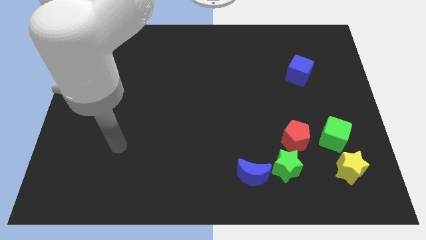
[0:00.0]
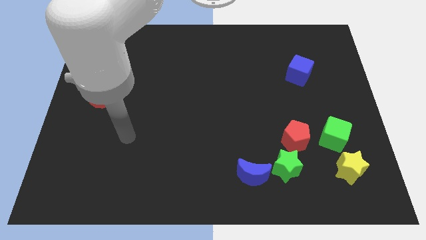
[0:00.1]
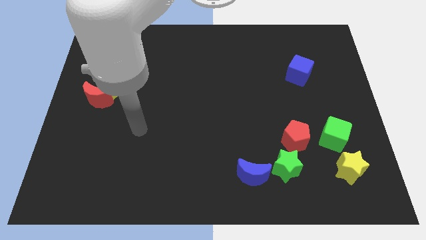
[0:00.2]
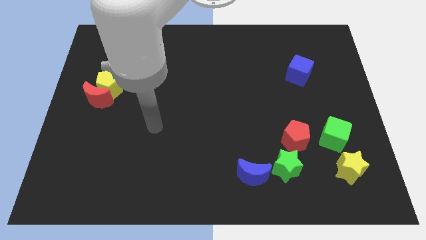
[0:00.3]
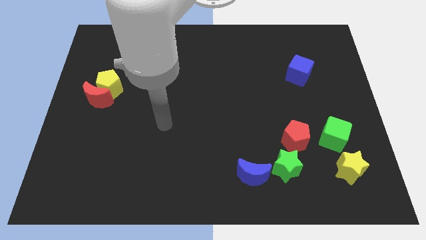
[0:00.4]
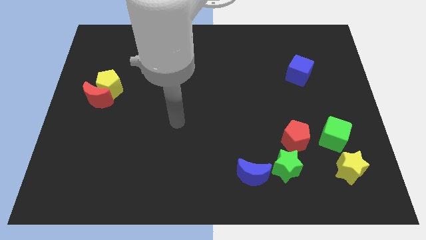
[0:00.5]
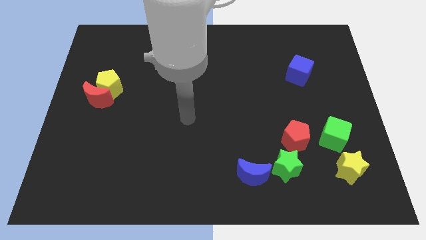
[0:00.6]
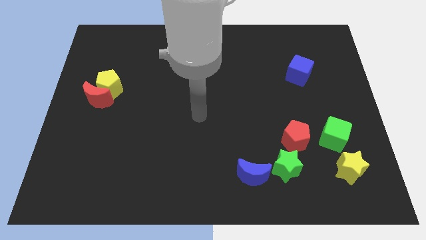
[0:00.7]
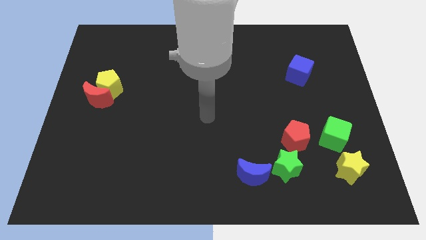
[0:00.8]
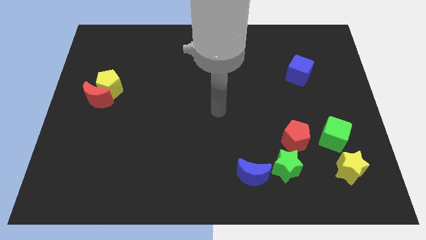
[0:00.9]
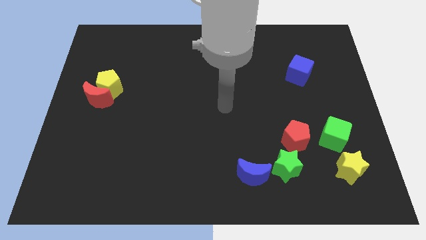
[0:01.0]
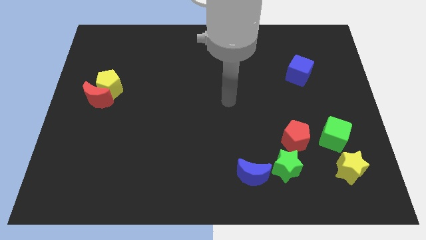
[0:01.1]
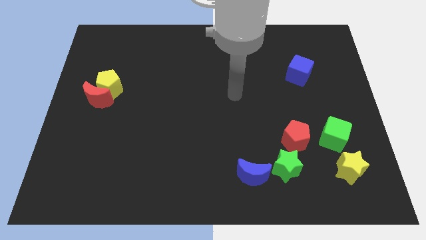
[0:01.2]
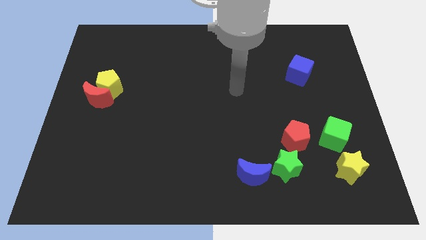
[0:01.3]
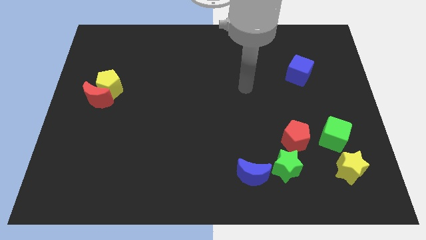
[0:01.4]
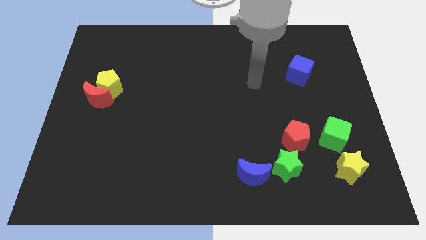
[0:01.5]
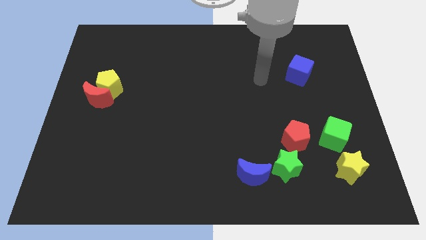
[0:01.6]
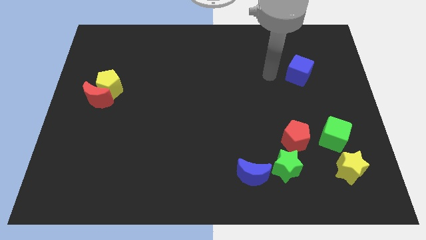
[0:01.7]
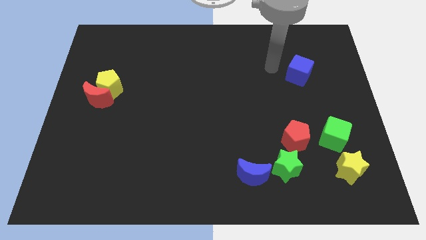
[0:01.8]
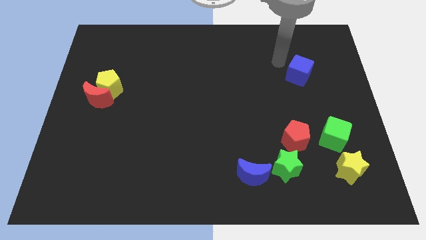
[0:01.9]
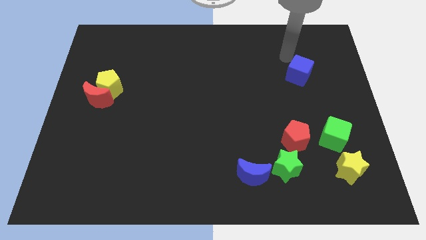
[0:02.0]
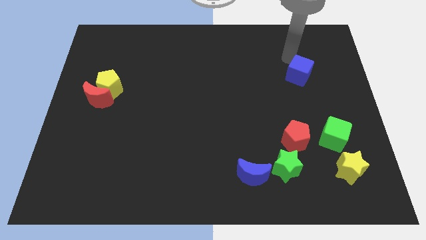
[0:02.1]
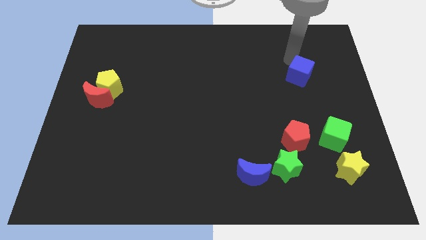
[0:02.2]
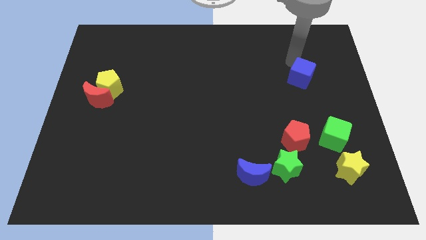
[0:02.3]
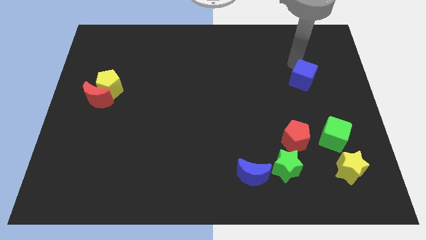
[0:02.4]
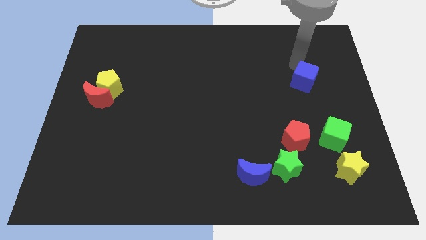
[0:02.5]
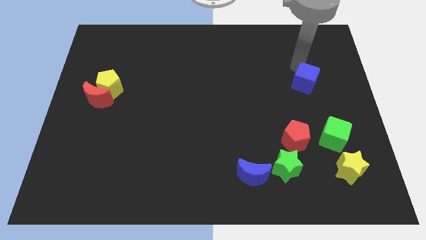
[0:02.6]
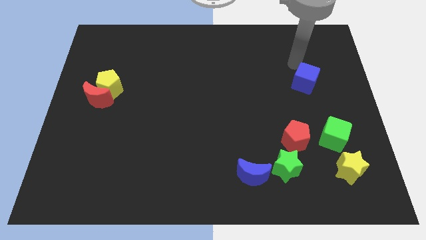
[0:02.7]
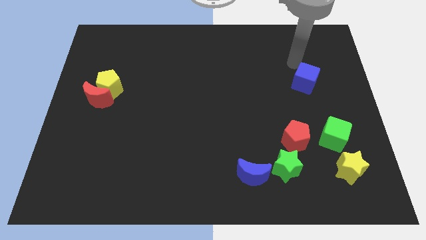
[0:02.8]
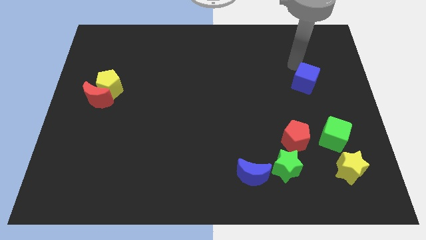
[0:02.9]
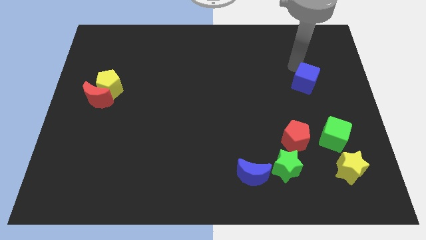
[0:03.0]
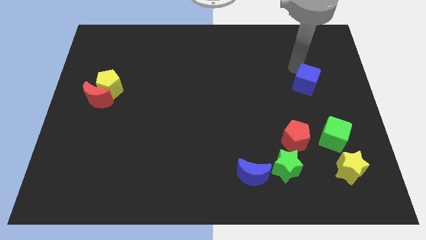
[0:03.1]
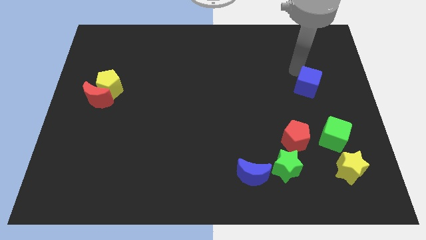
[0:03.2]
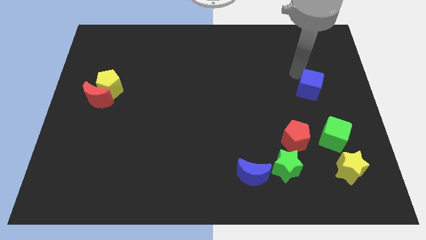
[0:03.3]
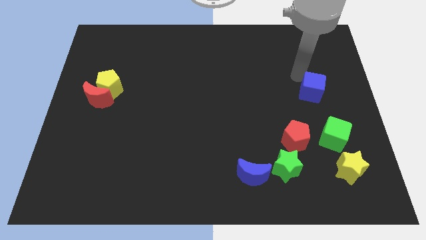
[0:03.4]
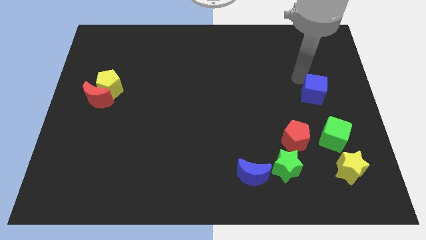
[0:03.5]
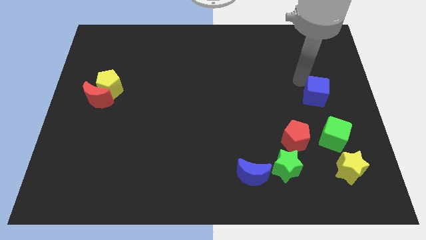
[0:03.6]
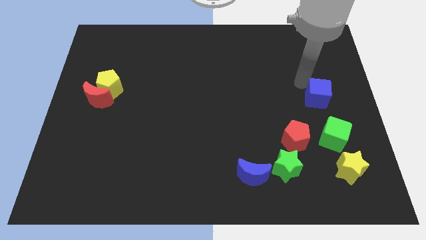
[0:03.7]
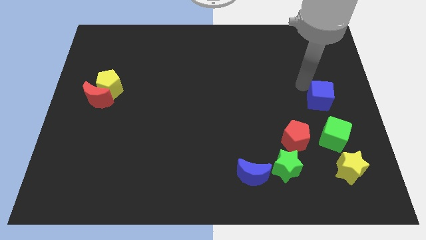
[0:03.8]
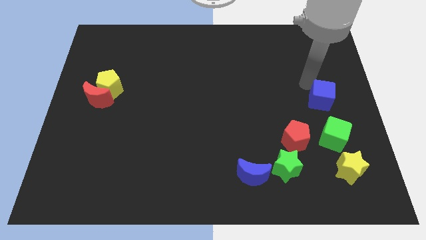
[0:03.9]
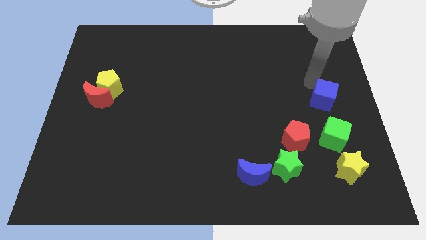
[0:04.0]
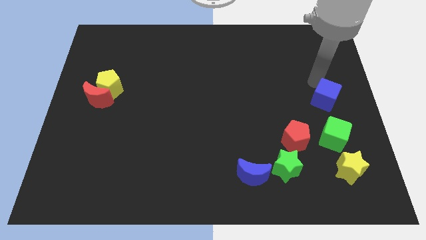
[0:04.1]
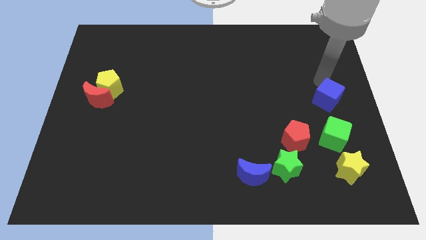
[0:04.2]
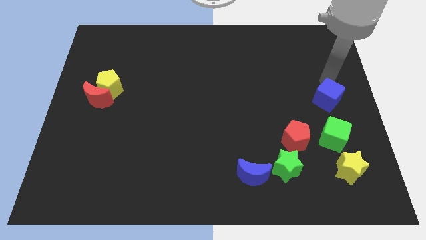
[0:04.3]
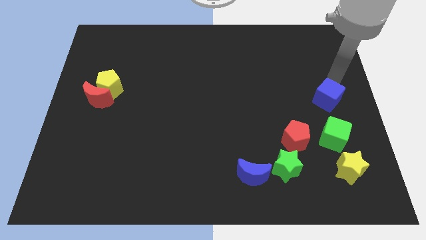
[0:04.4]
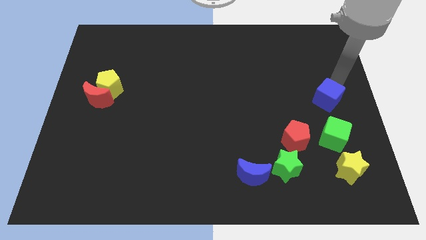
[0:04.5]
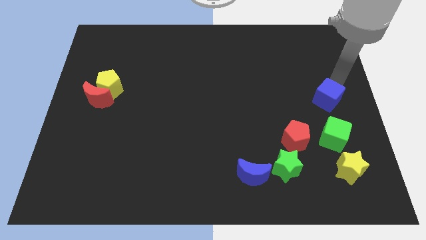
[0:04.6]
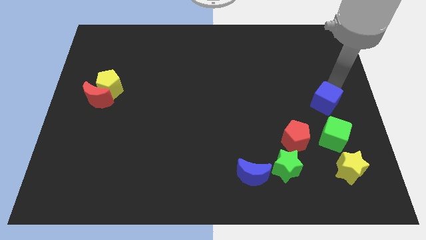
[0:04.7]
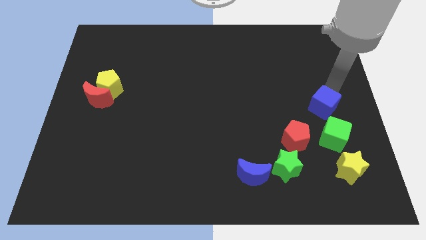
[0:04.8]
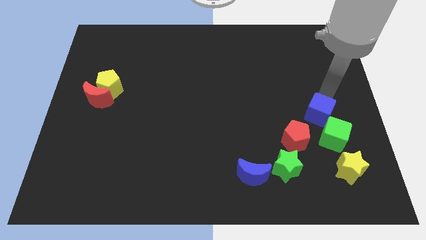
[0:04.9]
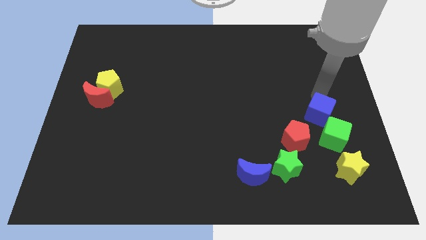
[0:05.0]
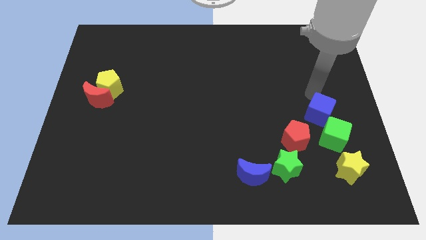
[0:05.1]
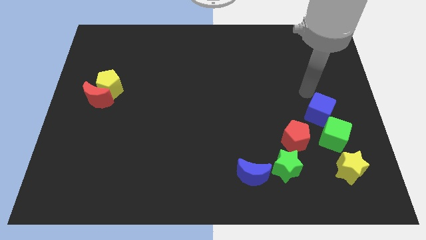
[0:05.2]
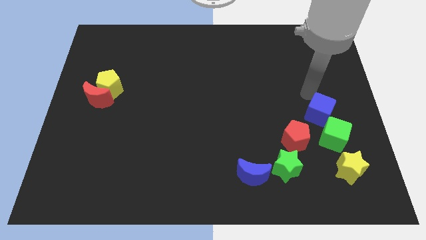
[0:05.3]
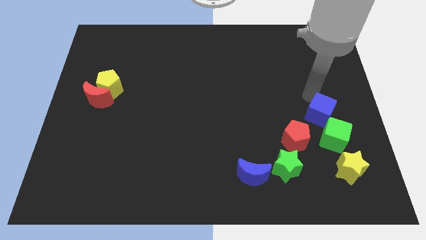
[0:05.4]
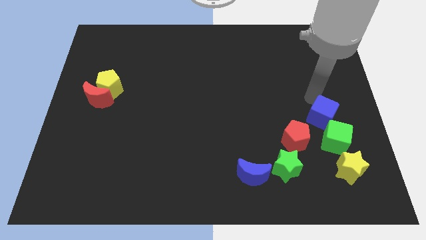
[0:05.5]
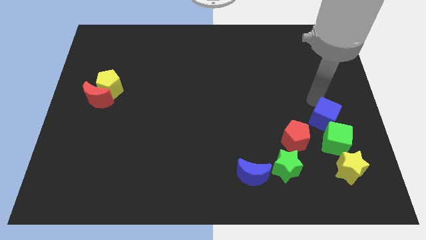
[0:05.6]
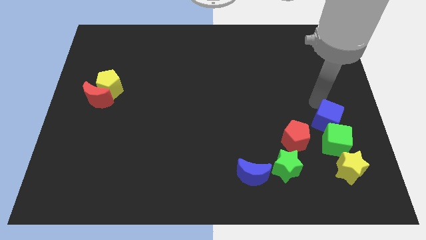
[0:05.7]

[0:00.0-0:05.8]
put the blue cube towards the green cube

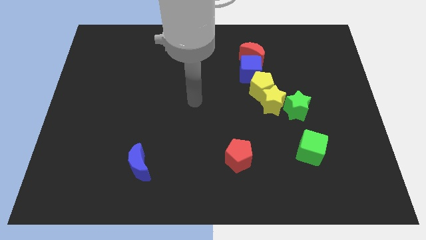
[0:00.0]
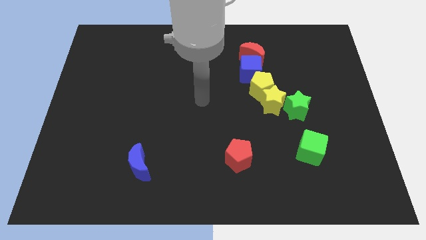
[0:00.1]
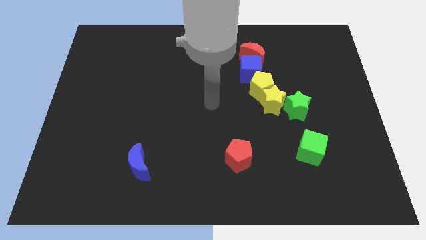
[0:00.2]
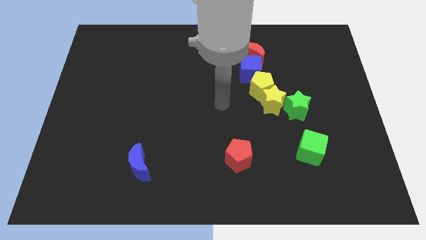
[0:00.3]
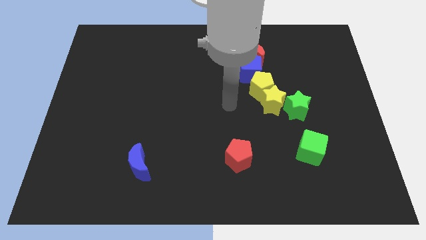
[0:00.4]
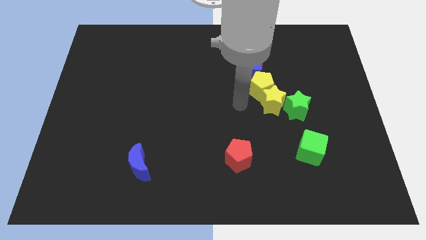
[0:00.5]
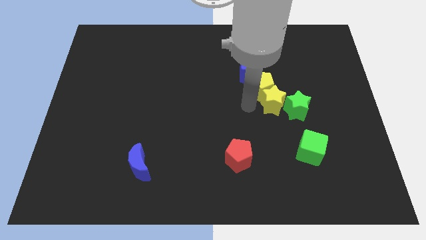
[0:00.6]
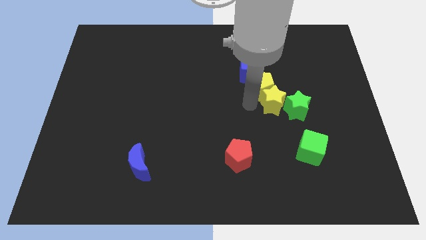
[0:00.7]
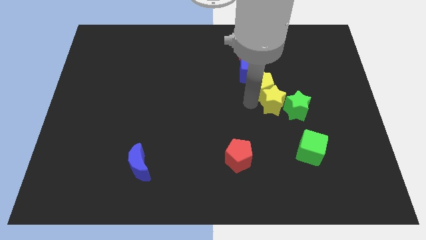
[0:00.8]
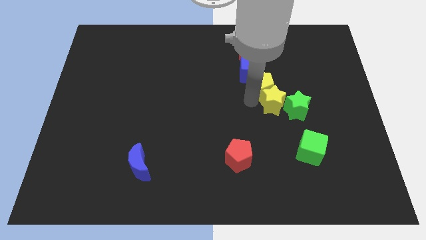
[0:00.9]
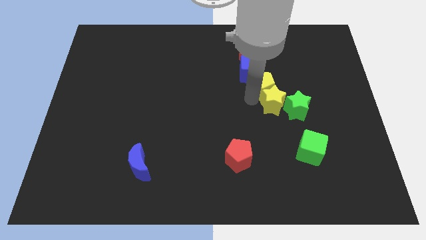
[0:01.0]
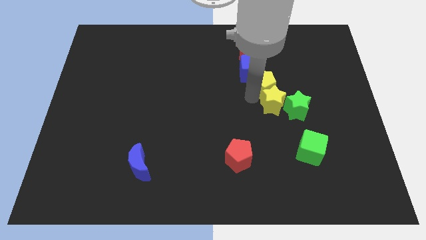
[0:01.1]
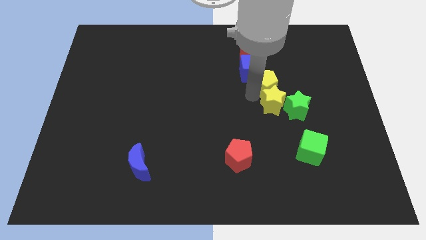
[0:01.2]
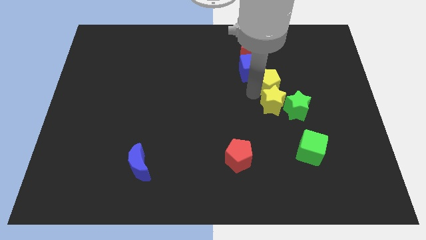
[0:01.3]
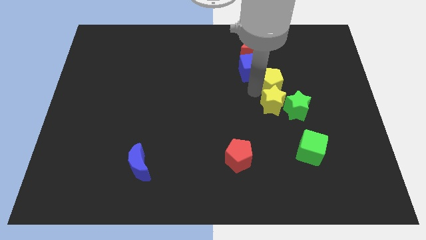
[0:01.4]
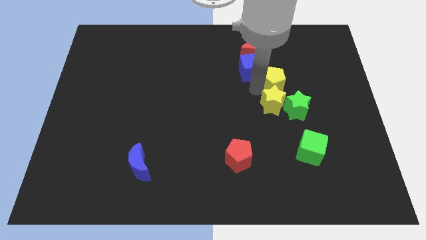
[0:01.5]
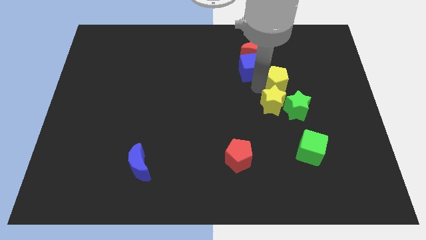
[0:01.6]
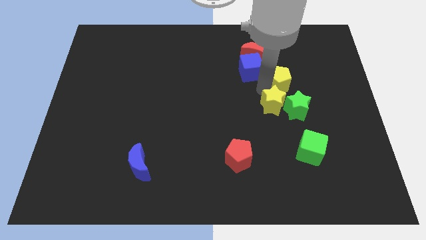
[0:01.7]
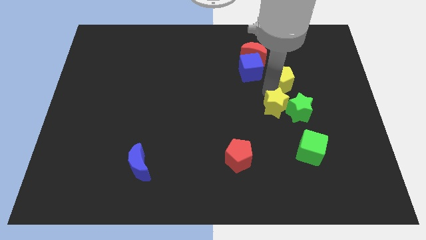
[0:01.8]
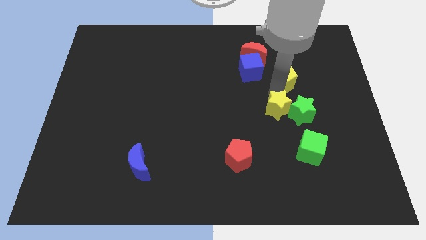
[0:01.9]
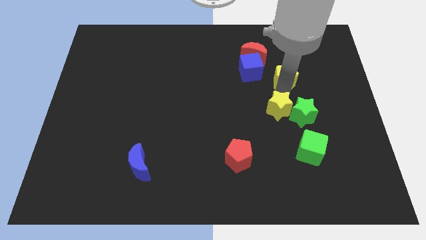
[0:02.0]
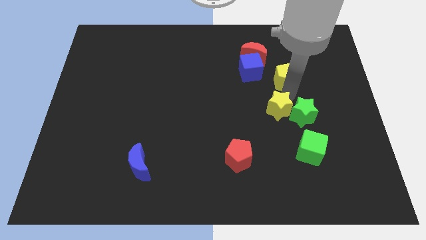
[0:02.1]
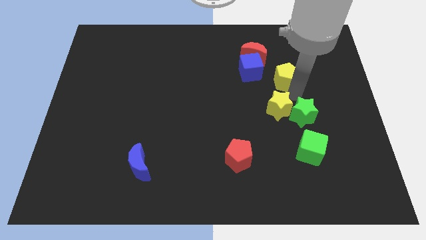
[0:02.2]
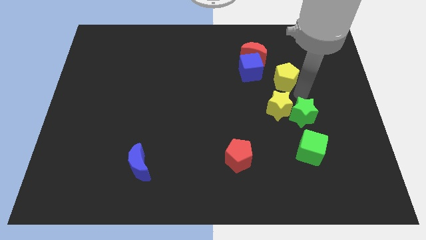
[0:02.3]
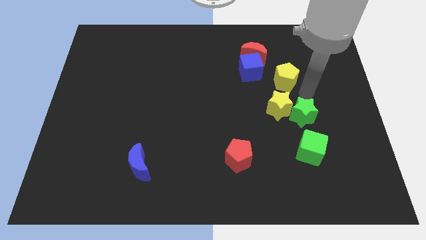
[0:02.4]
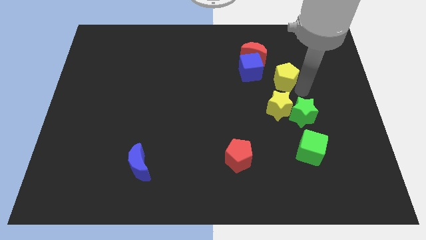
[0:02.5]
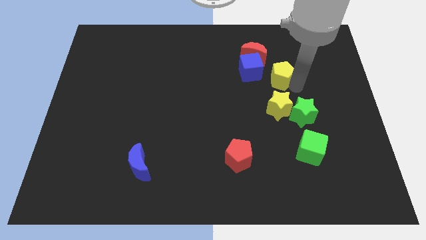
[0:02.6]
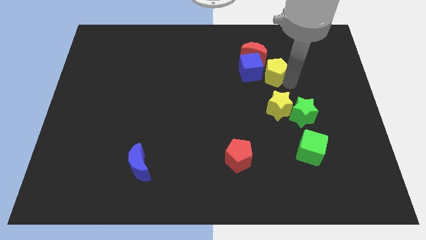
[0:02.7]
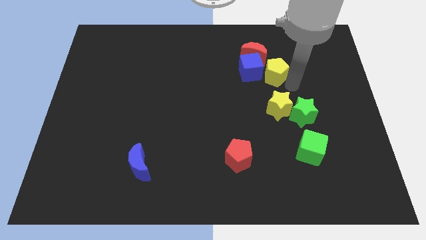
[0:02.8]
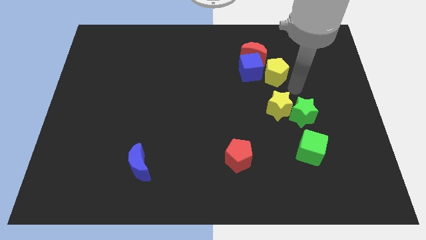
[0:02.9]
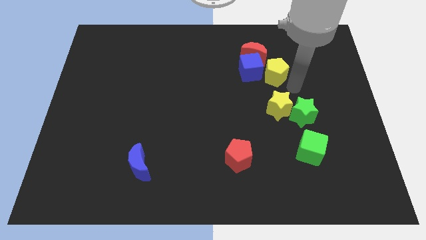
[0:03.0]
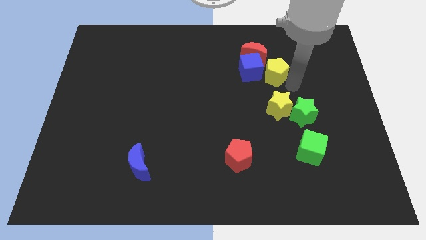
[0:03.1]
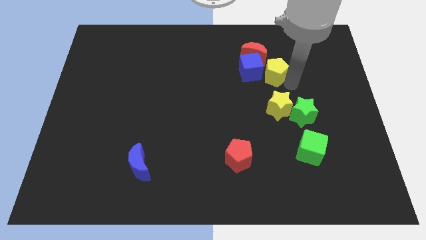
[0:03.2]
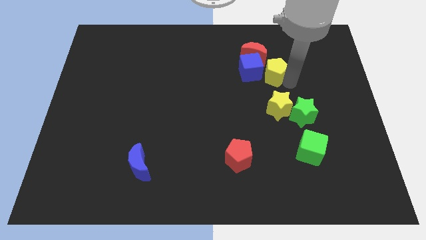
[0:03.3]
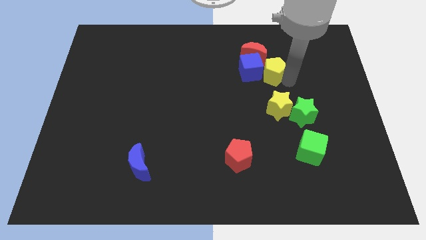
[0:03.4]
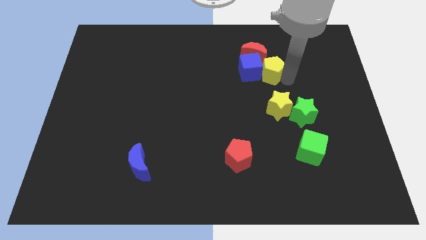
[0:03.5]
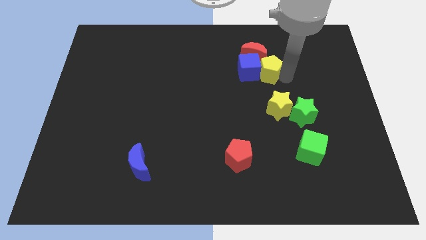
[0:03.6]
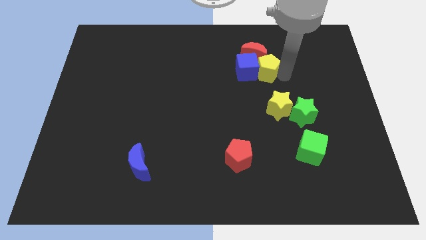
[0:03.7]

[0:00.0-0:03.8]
put the yellow pentagon next to the red moon
